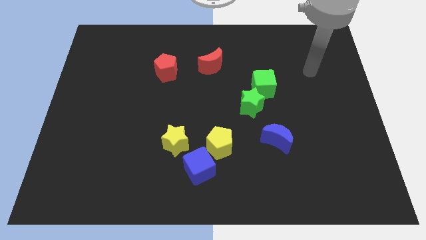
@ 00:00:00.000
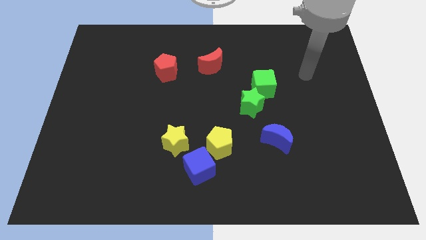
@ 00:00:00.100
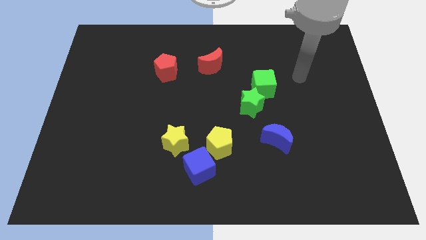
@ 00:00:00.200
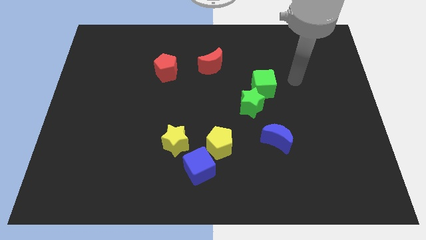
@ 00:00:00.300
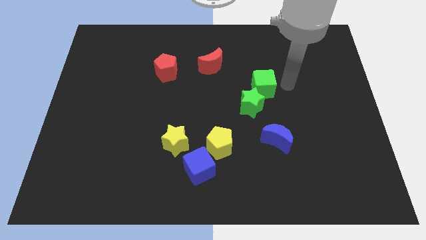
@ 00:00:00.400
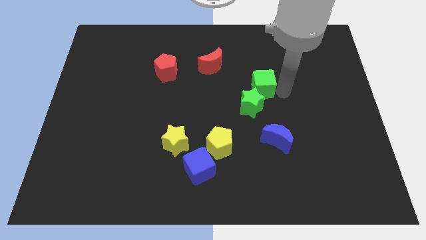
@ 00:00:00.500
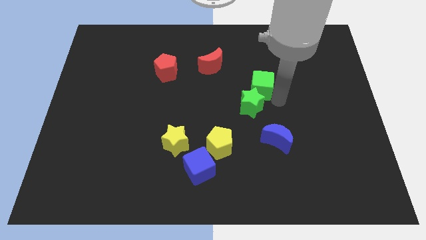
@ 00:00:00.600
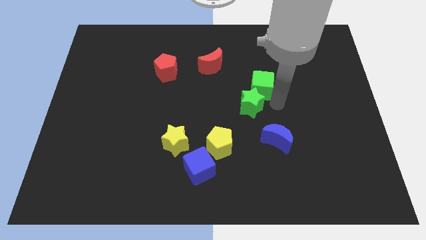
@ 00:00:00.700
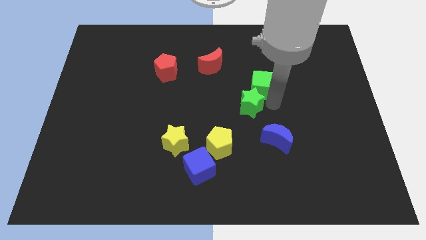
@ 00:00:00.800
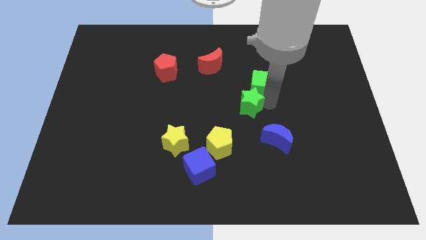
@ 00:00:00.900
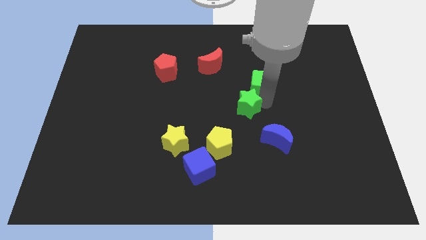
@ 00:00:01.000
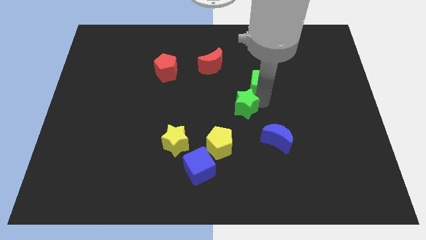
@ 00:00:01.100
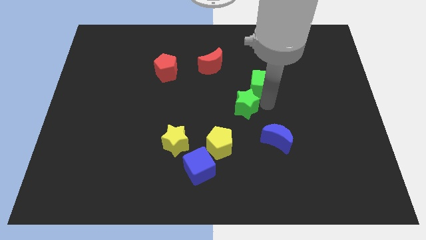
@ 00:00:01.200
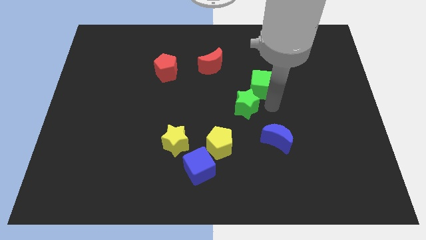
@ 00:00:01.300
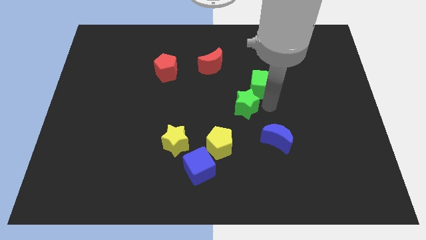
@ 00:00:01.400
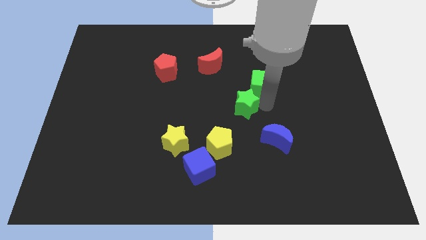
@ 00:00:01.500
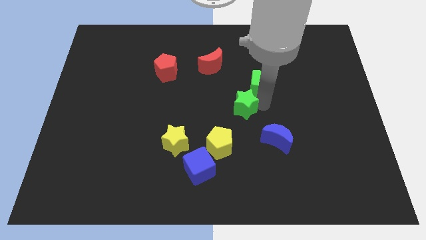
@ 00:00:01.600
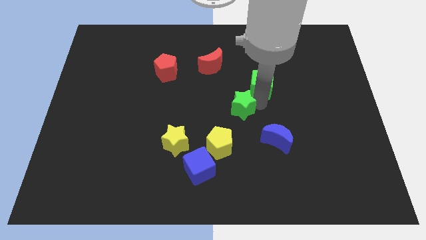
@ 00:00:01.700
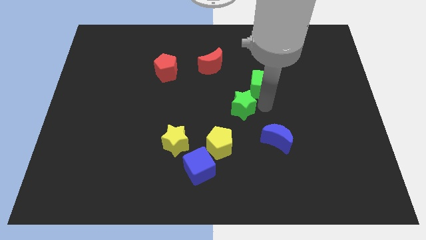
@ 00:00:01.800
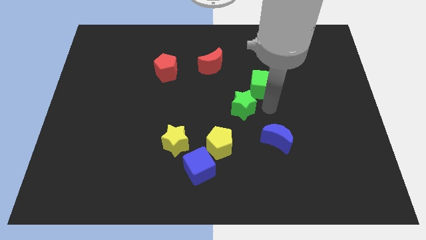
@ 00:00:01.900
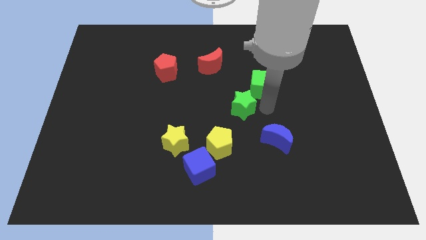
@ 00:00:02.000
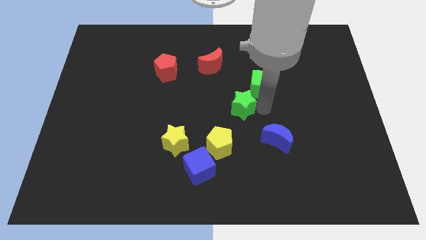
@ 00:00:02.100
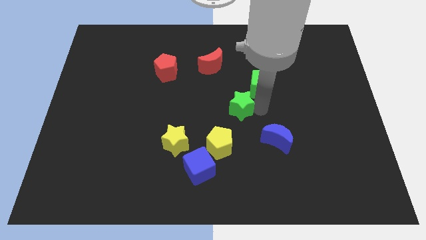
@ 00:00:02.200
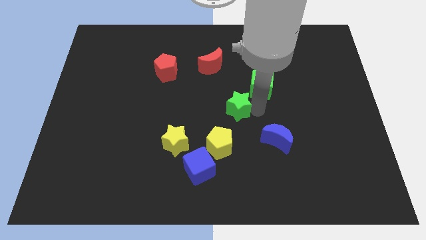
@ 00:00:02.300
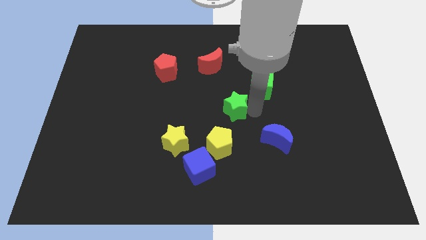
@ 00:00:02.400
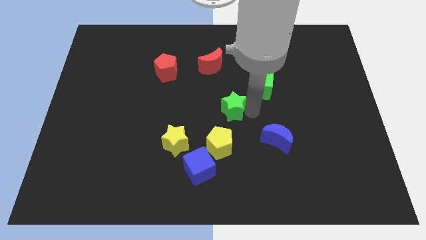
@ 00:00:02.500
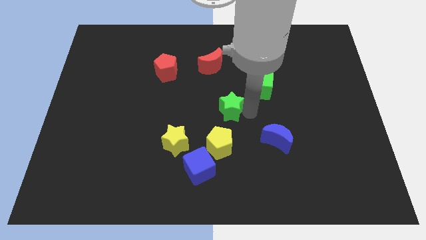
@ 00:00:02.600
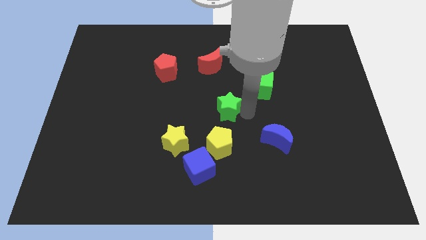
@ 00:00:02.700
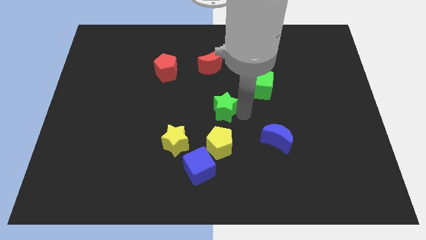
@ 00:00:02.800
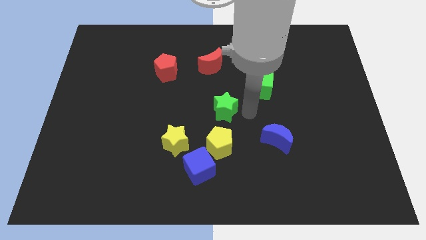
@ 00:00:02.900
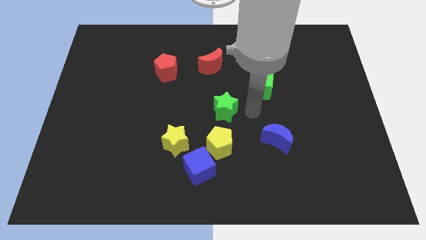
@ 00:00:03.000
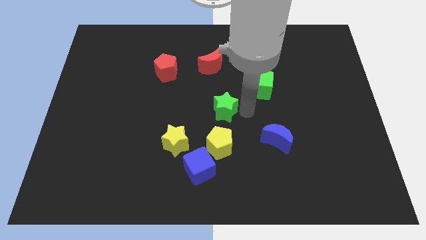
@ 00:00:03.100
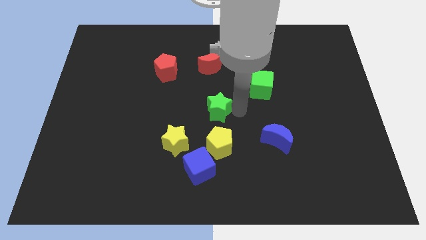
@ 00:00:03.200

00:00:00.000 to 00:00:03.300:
push the green star somewhat left

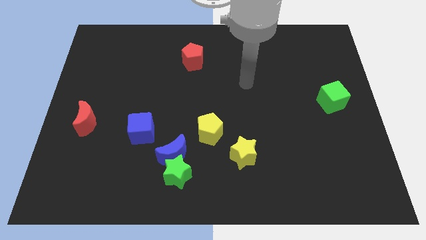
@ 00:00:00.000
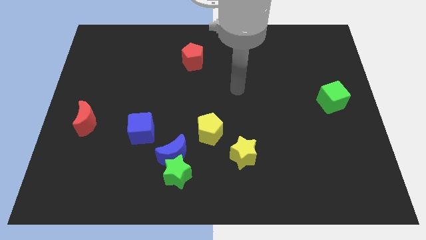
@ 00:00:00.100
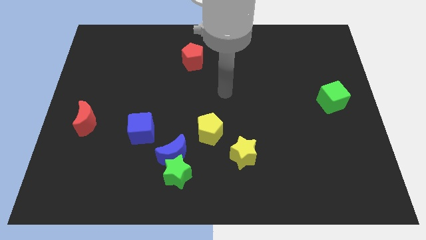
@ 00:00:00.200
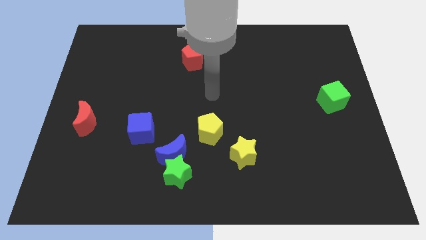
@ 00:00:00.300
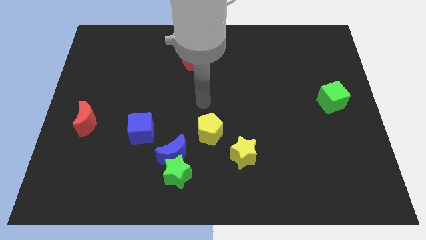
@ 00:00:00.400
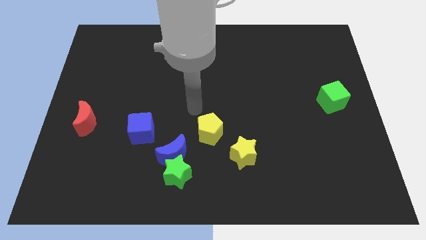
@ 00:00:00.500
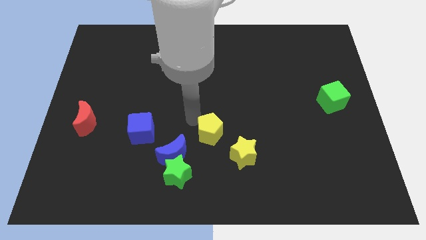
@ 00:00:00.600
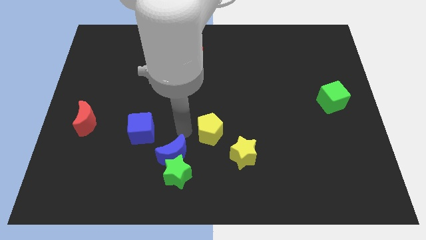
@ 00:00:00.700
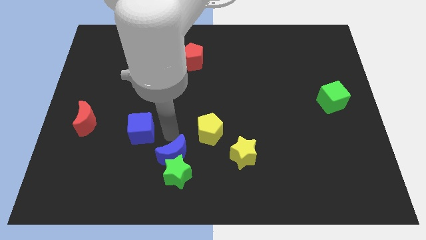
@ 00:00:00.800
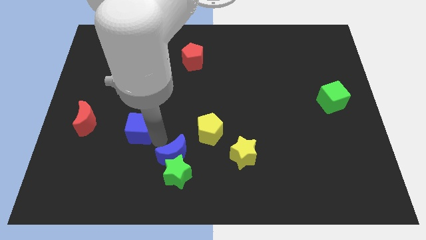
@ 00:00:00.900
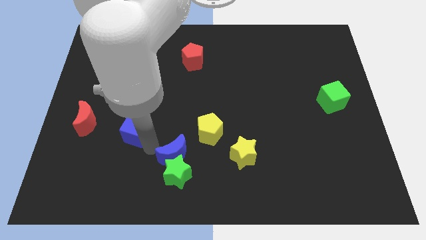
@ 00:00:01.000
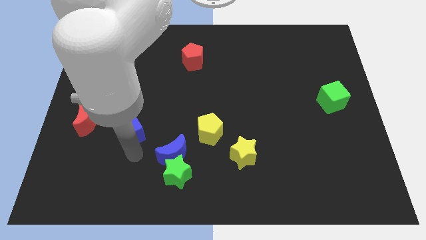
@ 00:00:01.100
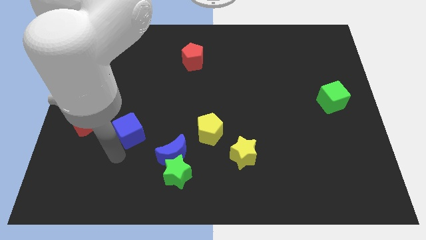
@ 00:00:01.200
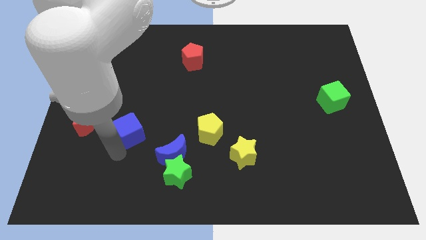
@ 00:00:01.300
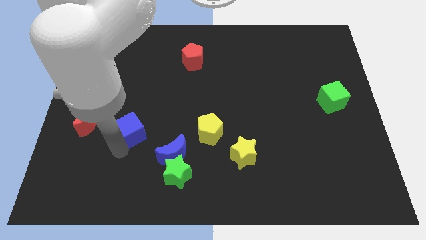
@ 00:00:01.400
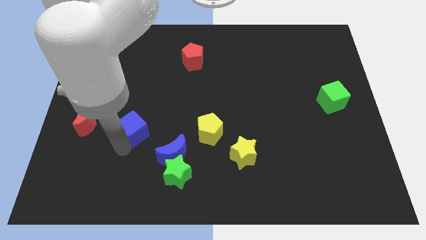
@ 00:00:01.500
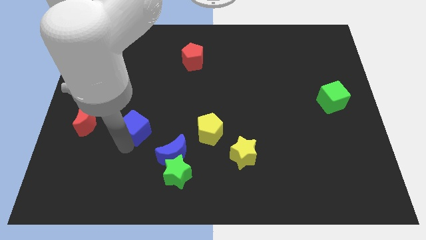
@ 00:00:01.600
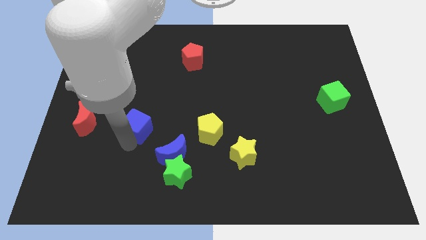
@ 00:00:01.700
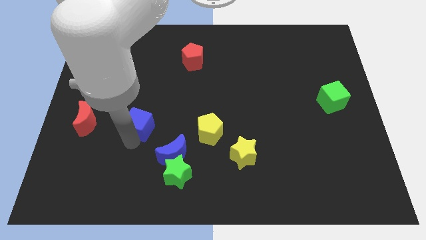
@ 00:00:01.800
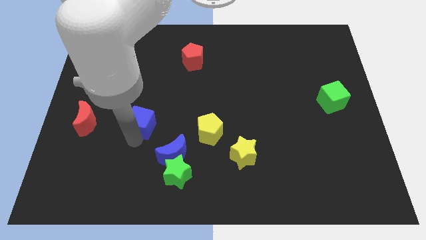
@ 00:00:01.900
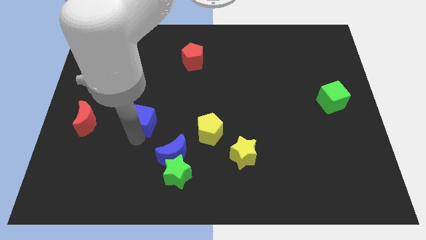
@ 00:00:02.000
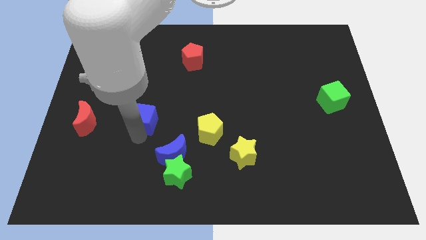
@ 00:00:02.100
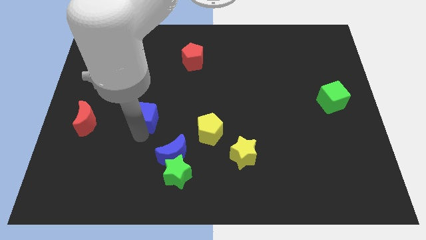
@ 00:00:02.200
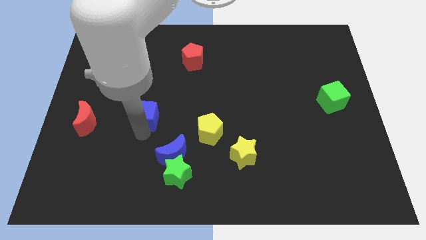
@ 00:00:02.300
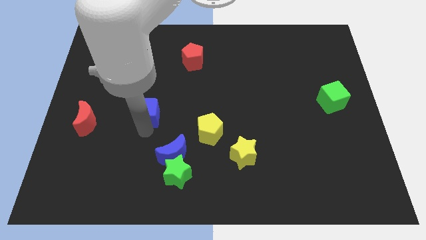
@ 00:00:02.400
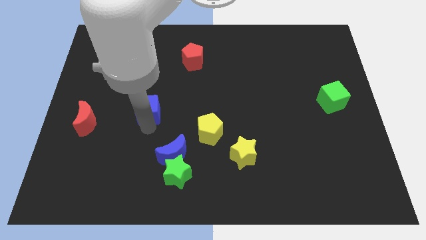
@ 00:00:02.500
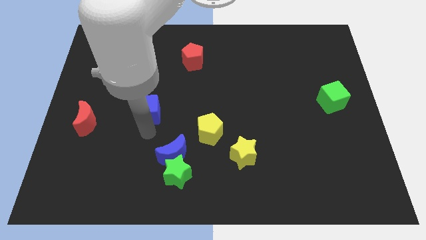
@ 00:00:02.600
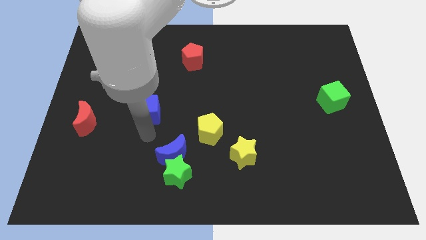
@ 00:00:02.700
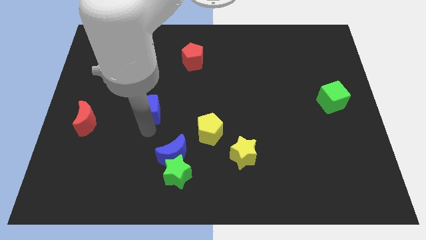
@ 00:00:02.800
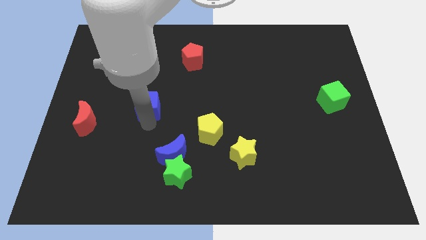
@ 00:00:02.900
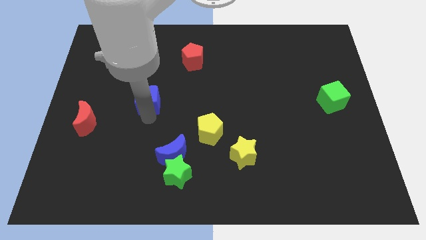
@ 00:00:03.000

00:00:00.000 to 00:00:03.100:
push the blue cube up slightly

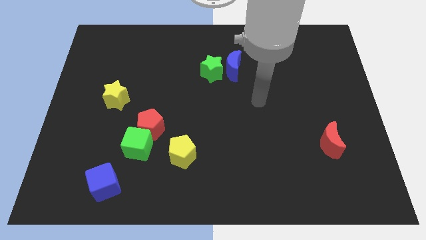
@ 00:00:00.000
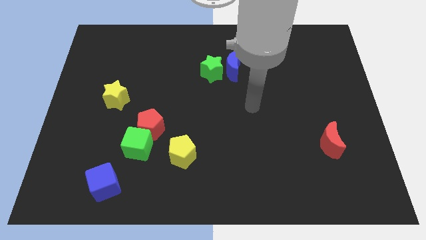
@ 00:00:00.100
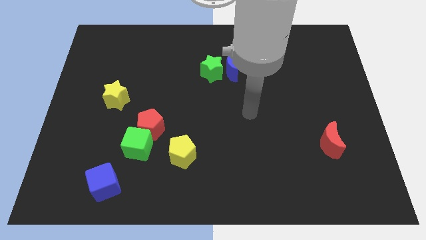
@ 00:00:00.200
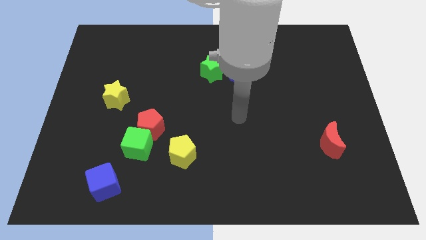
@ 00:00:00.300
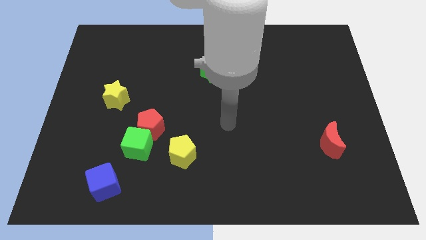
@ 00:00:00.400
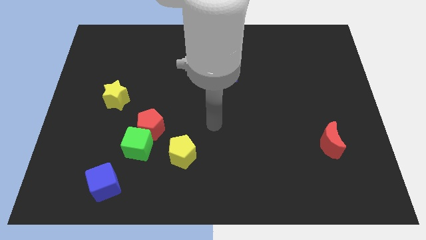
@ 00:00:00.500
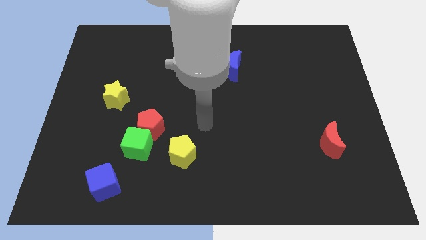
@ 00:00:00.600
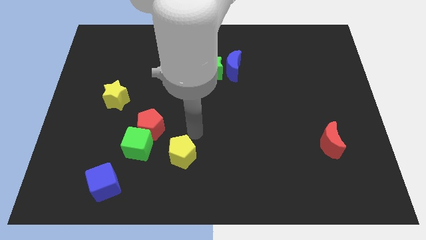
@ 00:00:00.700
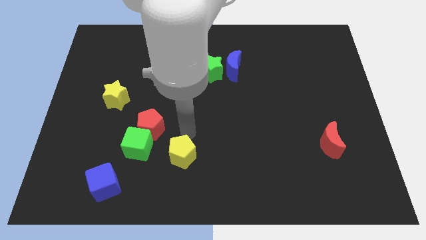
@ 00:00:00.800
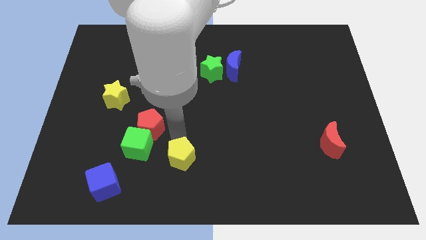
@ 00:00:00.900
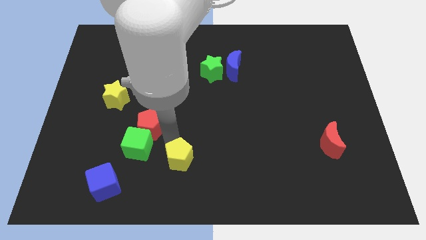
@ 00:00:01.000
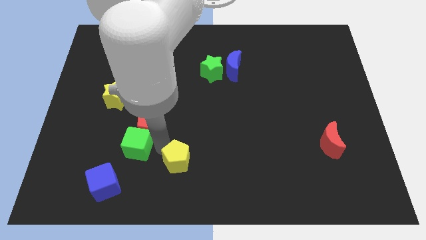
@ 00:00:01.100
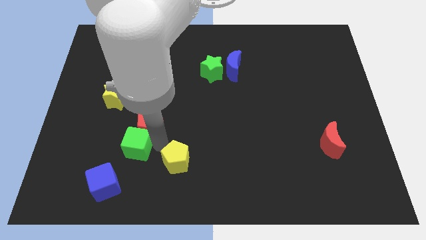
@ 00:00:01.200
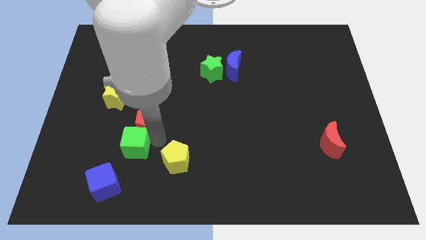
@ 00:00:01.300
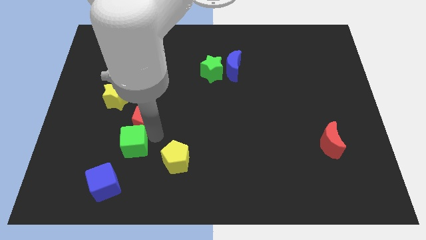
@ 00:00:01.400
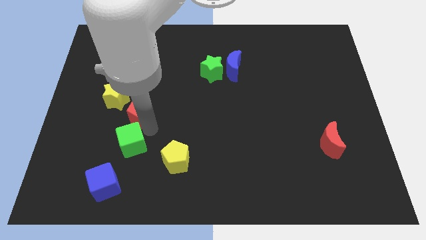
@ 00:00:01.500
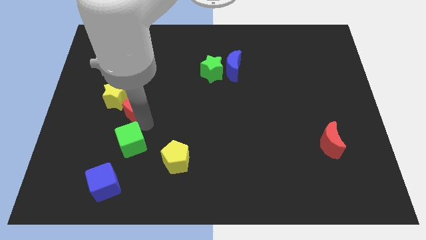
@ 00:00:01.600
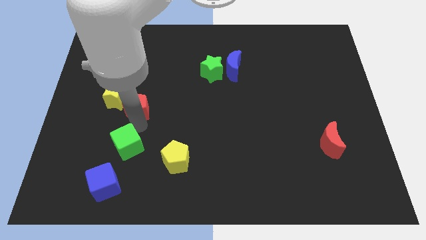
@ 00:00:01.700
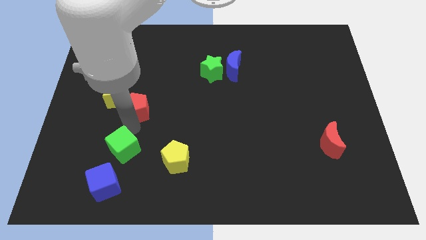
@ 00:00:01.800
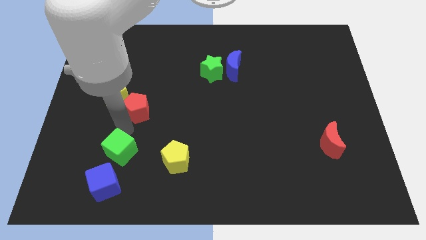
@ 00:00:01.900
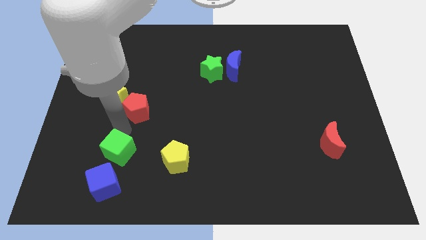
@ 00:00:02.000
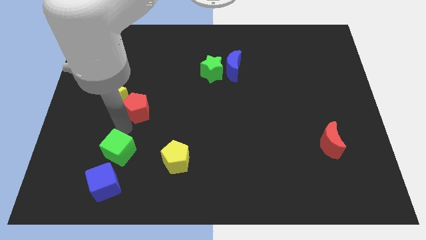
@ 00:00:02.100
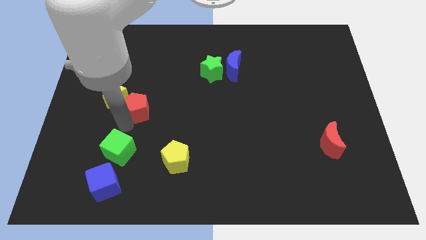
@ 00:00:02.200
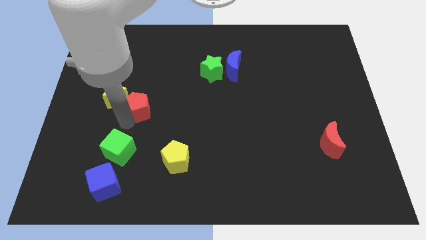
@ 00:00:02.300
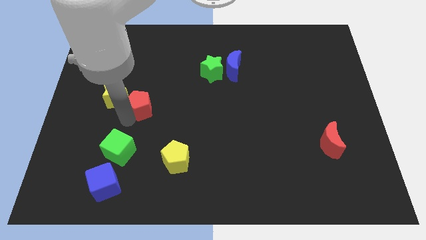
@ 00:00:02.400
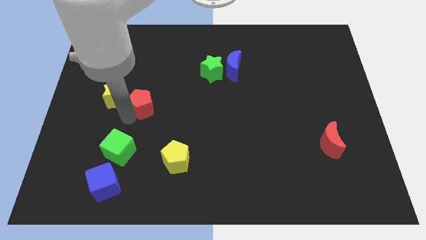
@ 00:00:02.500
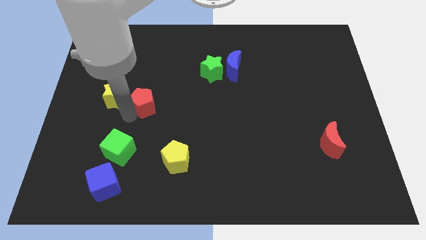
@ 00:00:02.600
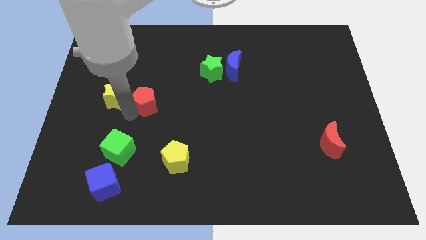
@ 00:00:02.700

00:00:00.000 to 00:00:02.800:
move the red pentagon a bit up
